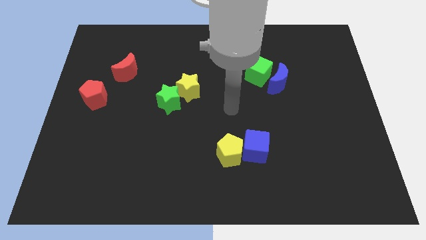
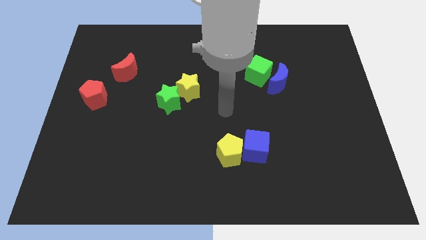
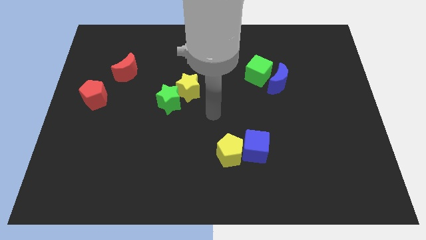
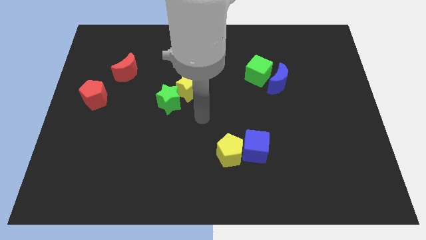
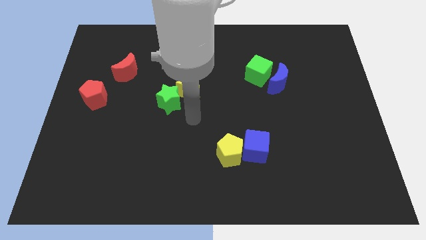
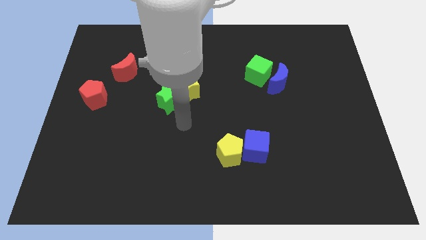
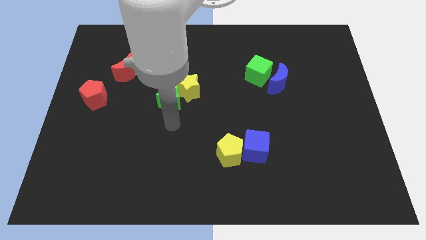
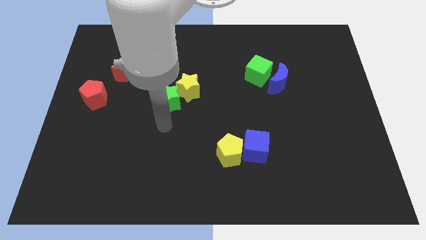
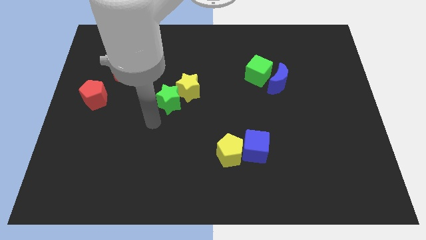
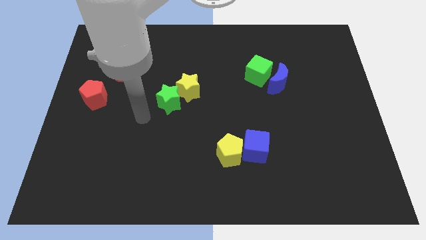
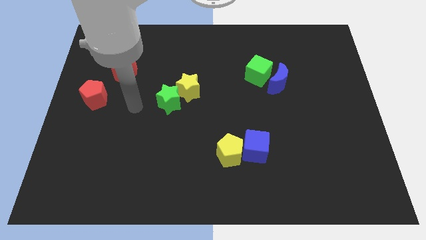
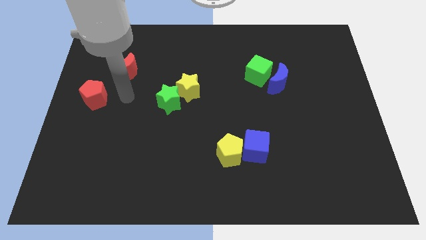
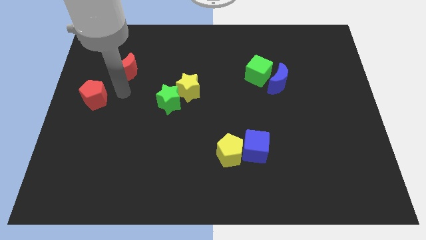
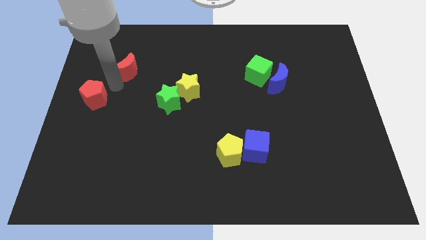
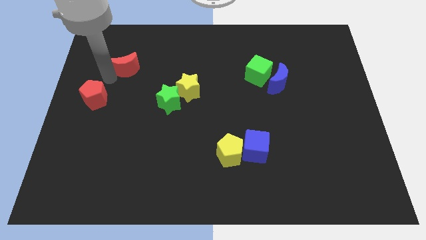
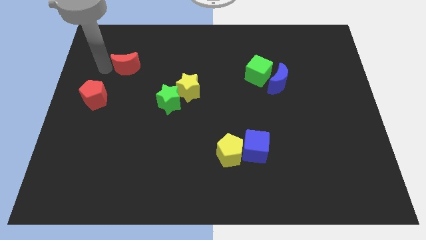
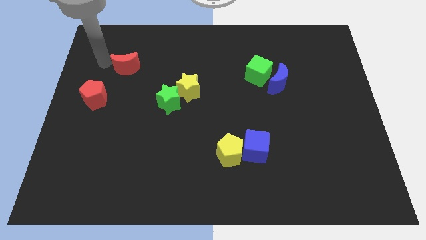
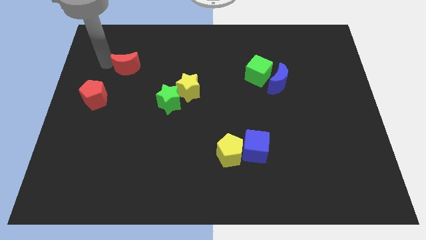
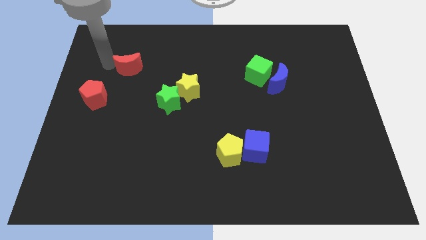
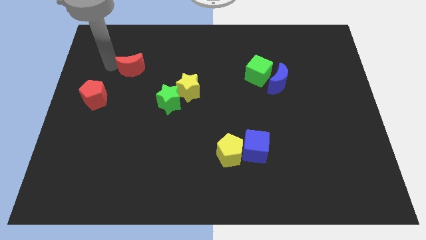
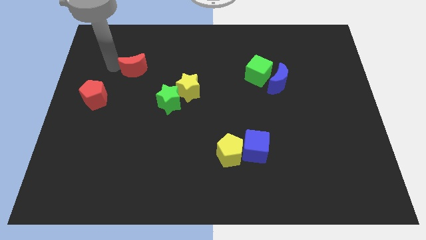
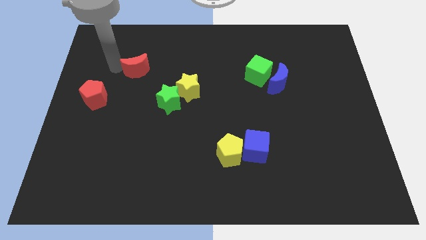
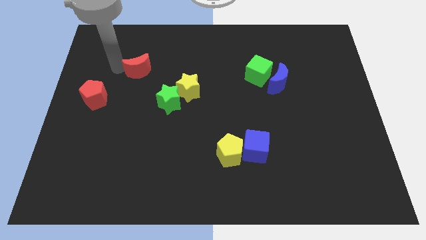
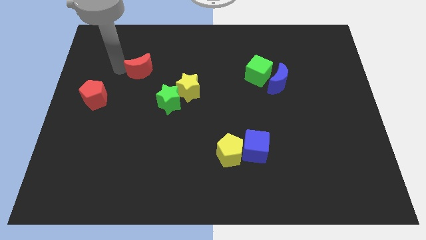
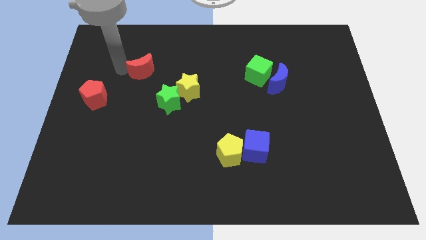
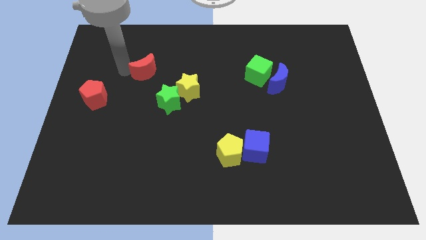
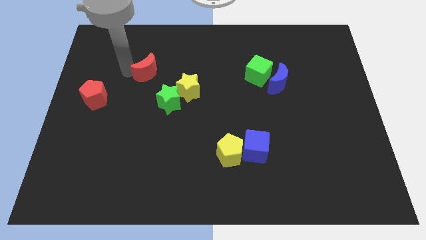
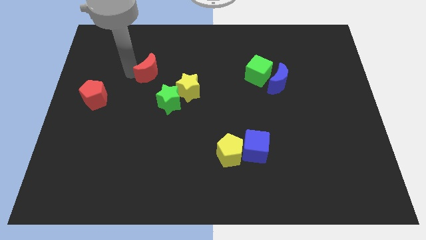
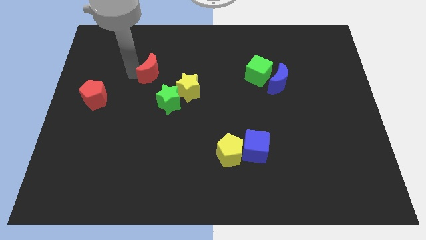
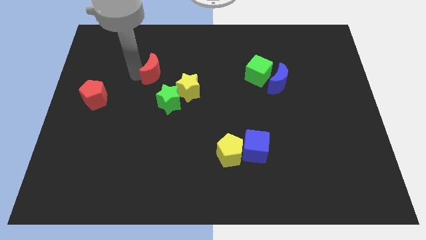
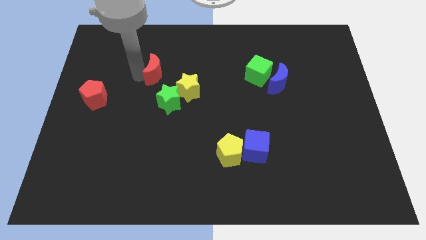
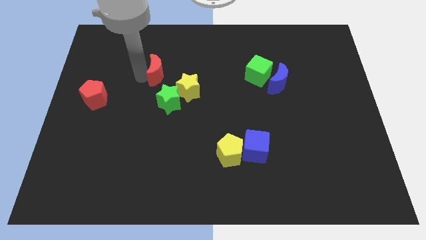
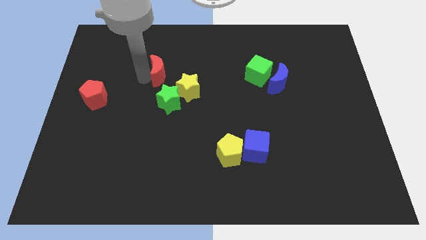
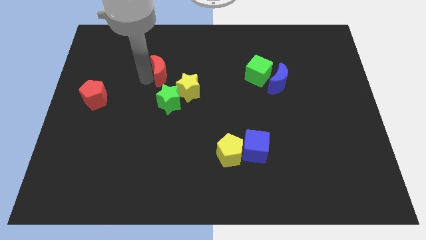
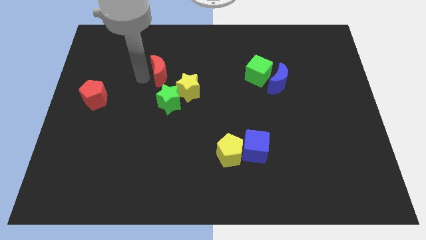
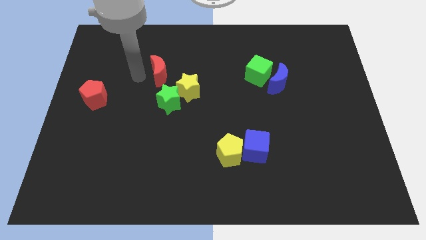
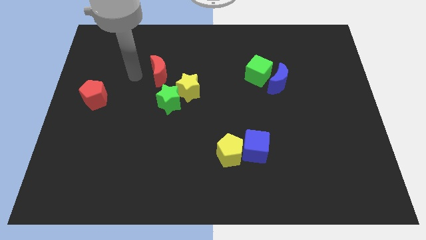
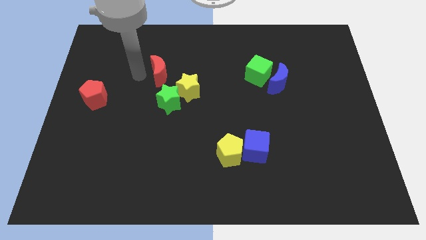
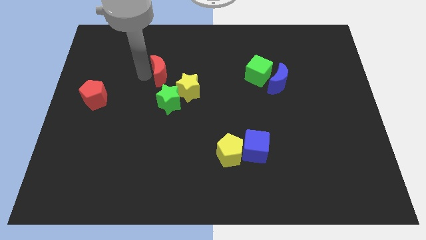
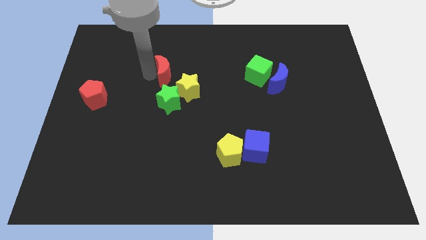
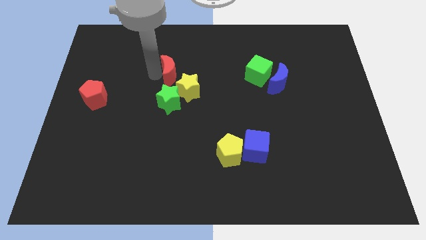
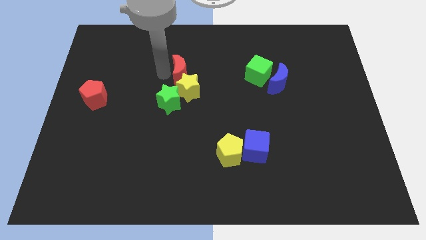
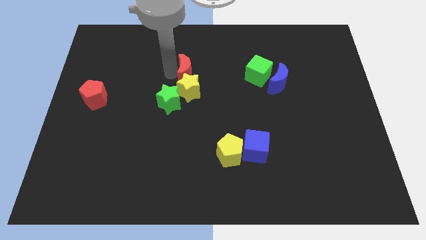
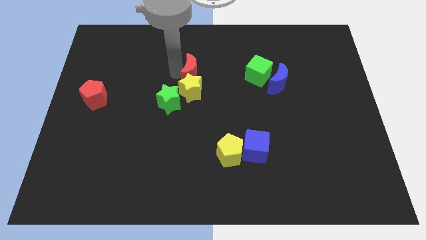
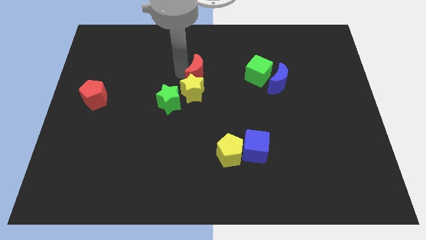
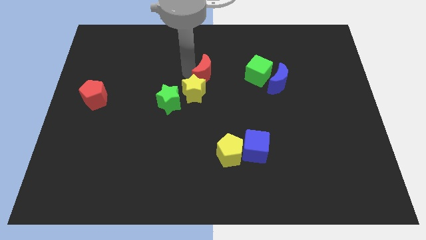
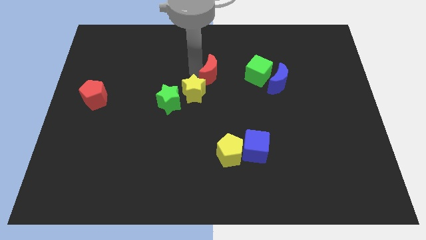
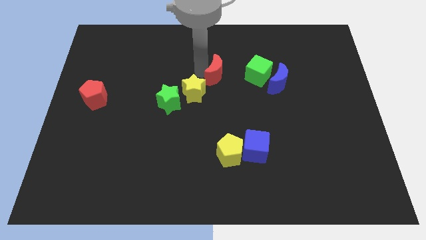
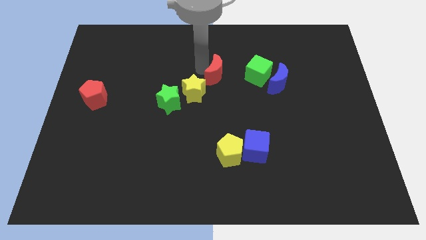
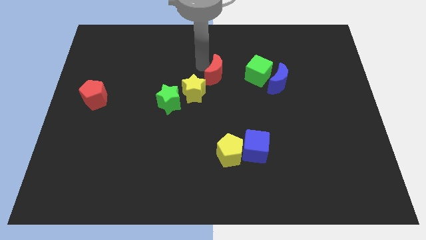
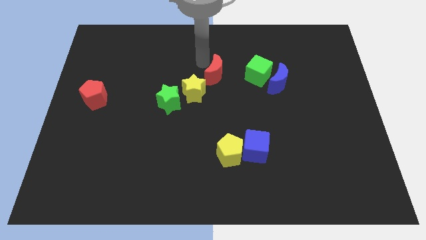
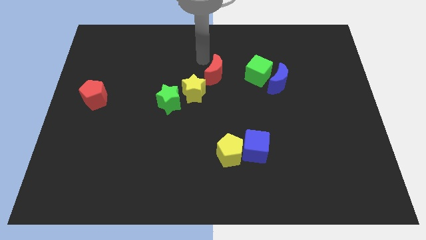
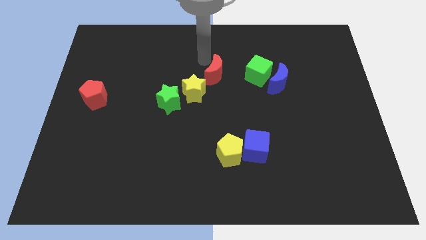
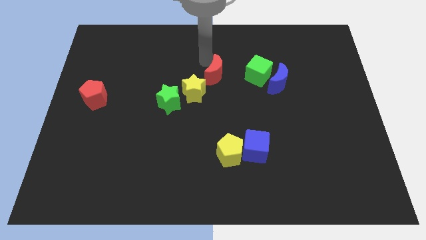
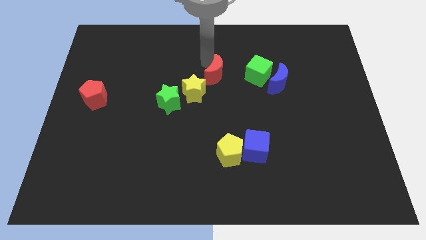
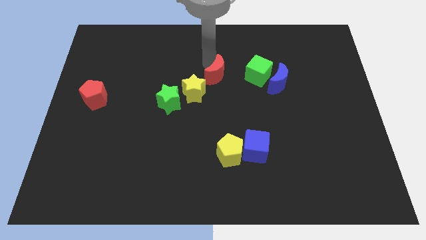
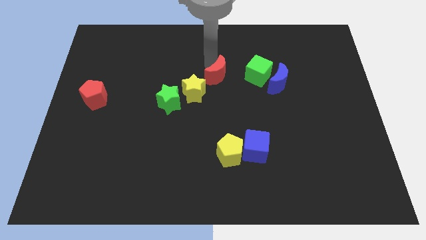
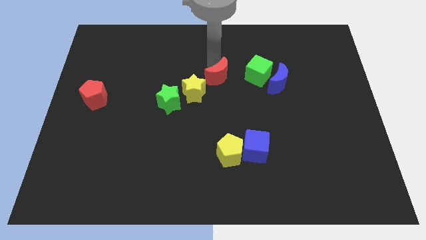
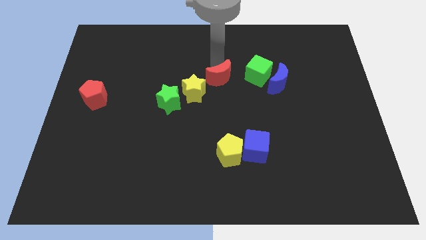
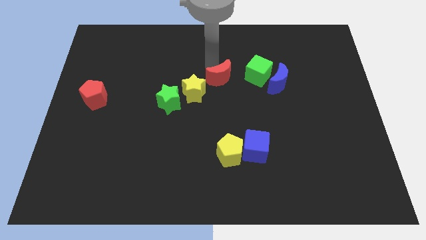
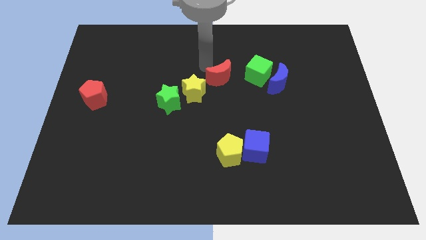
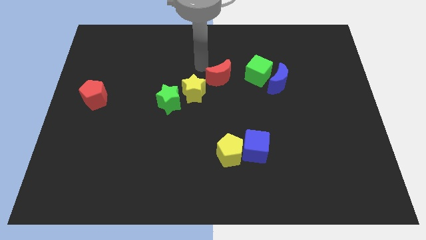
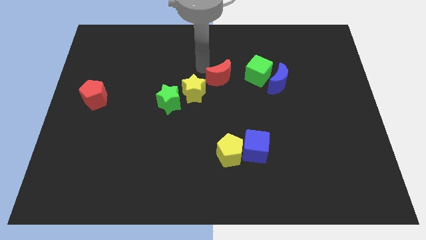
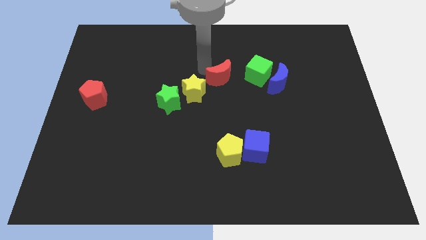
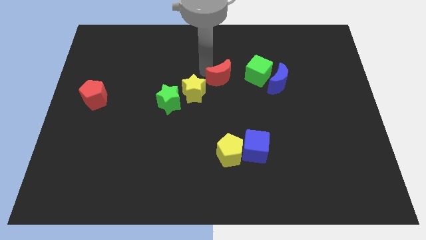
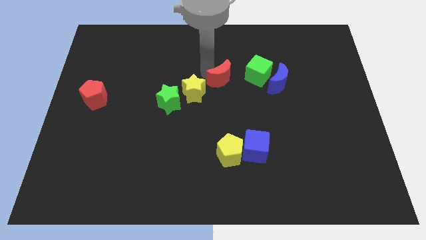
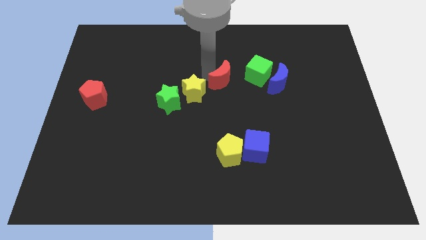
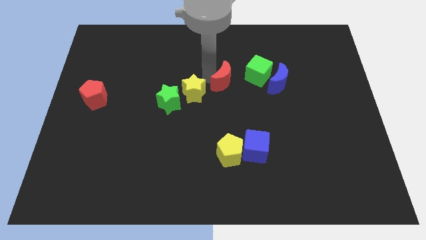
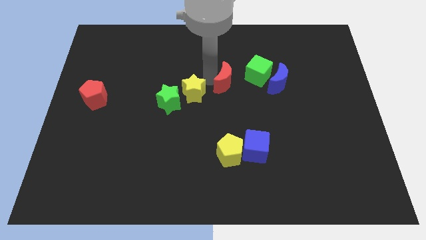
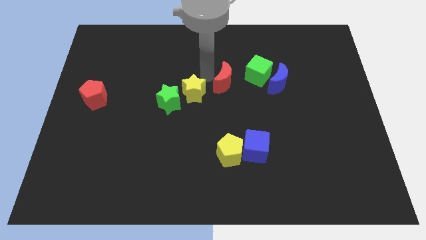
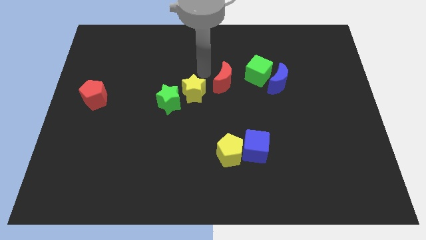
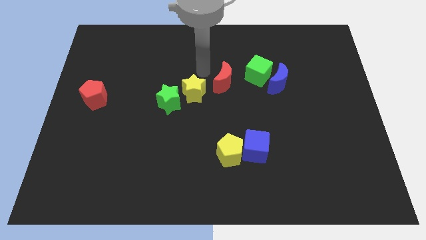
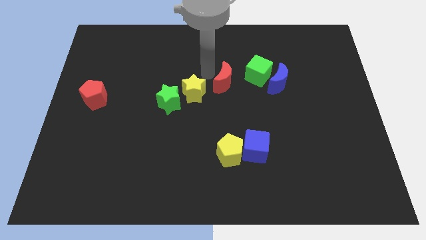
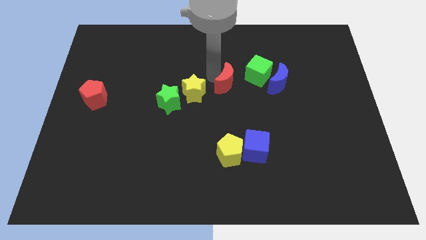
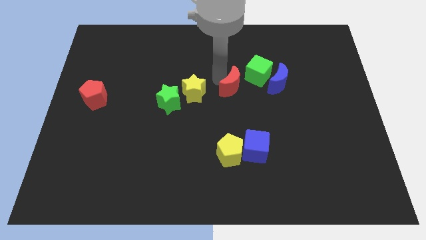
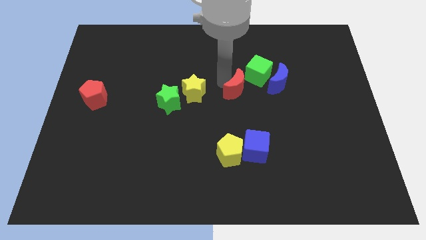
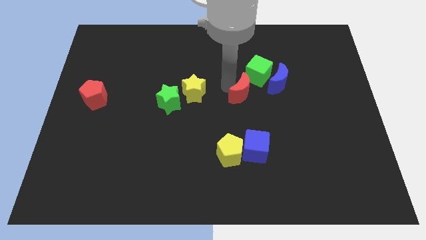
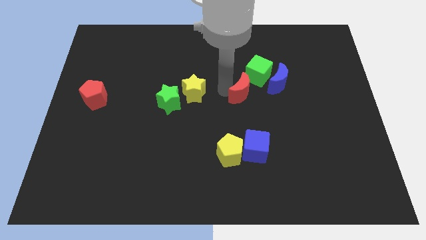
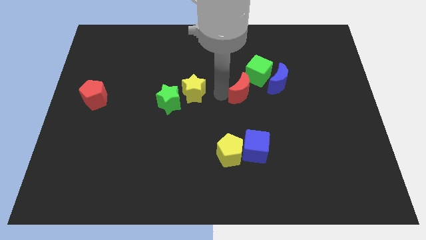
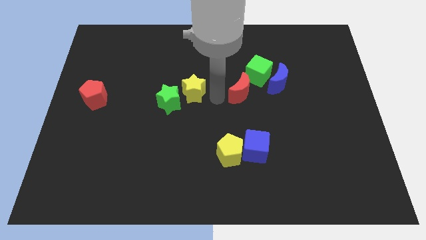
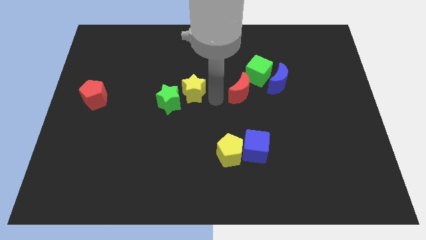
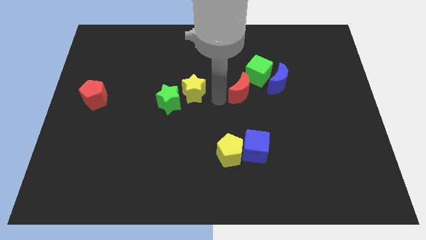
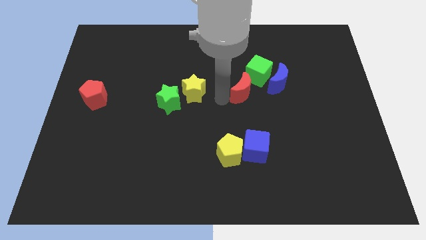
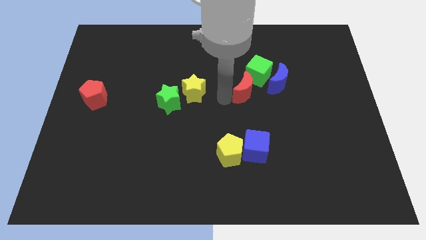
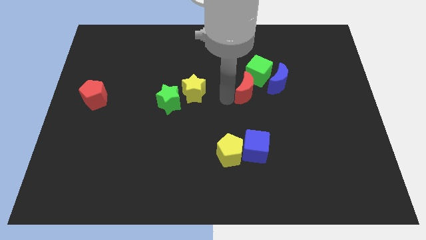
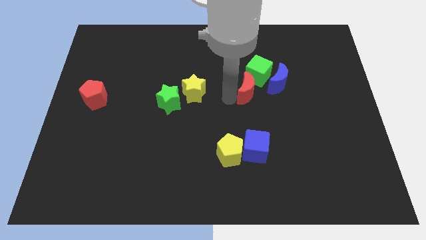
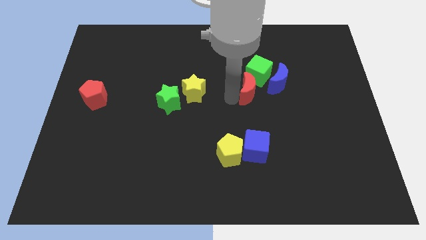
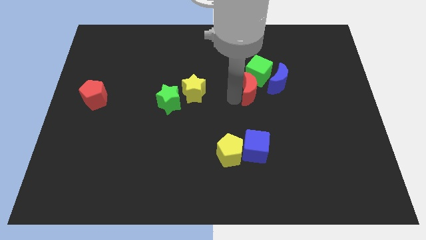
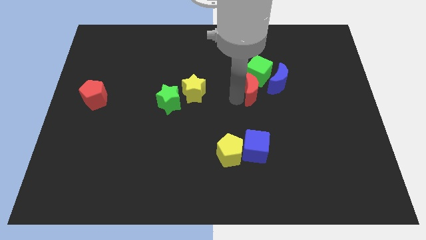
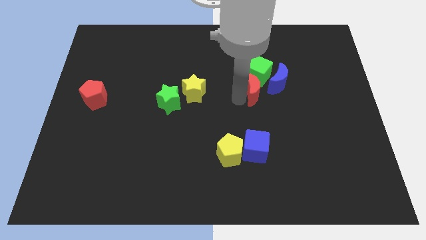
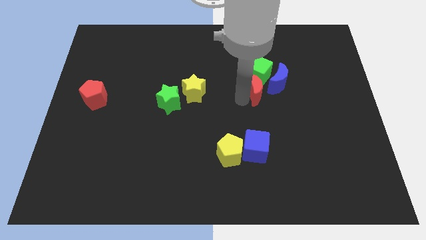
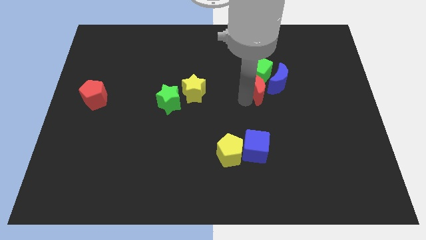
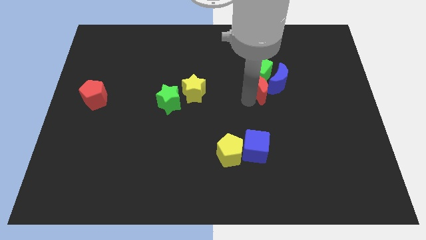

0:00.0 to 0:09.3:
push the red moon next to the blue moon
